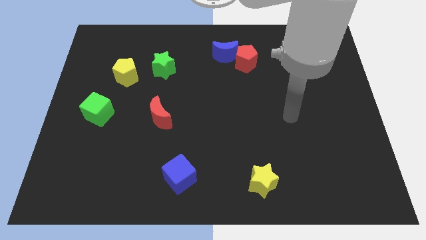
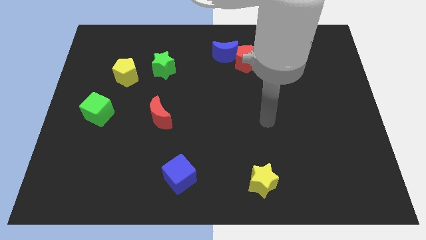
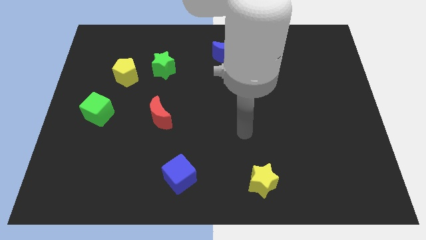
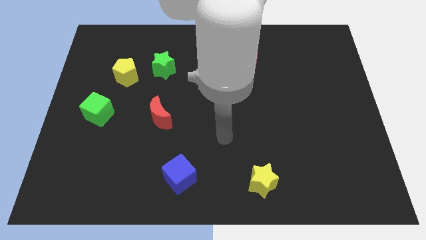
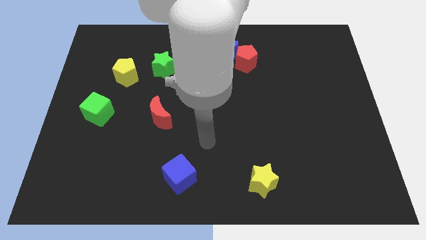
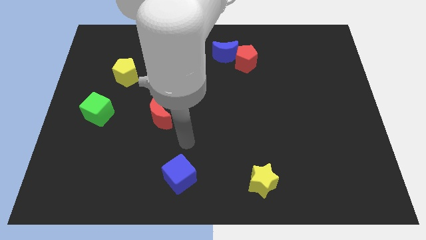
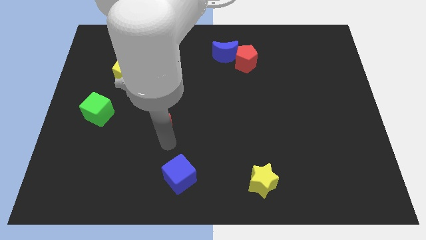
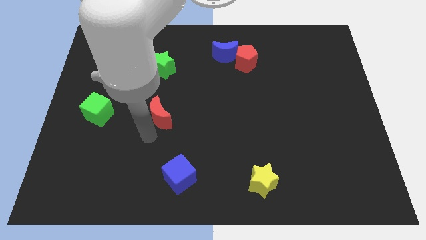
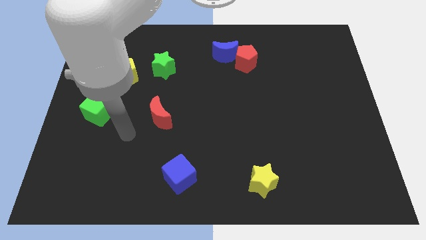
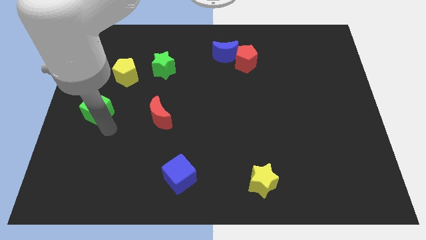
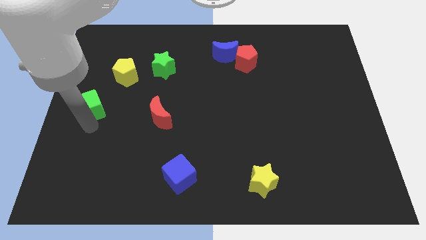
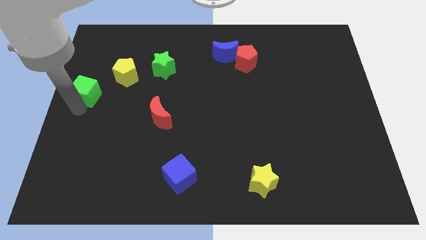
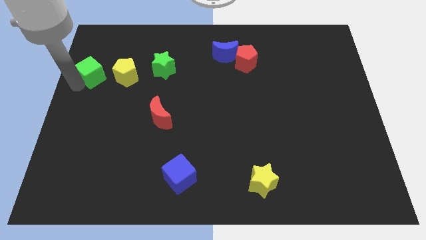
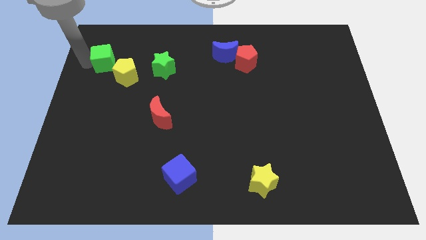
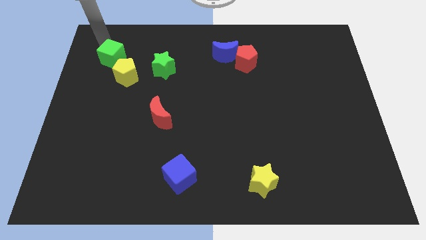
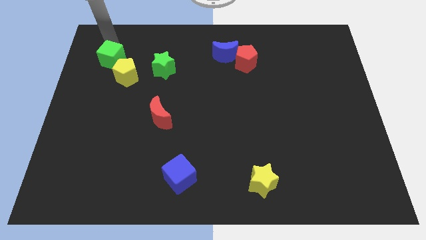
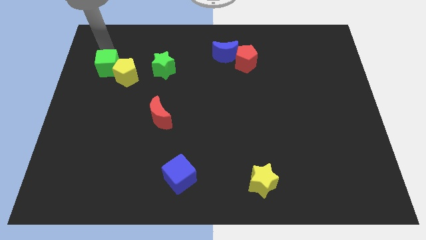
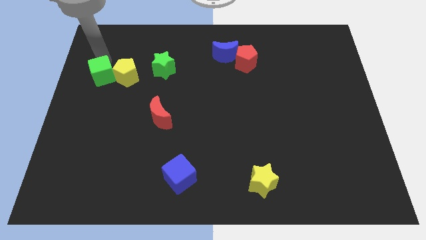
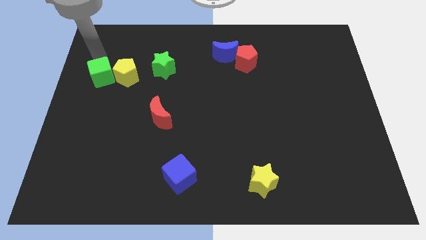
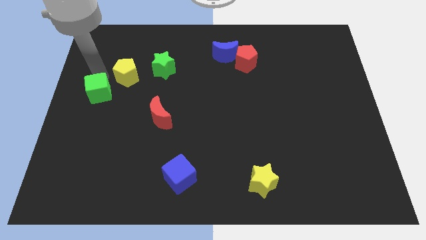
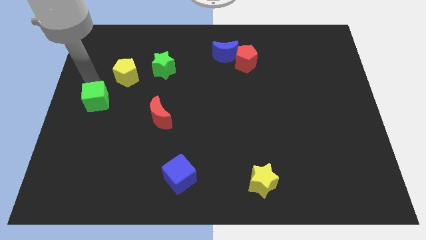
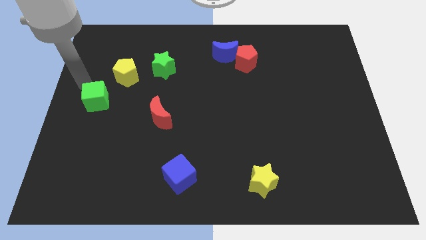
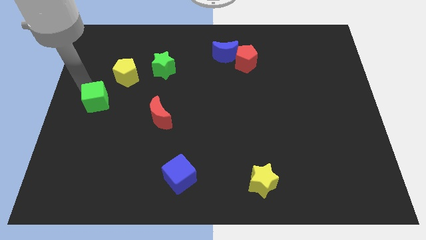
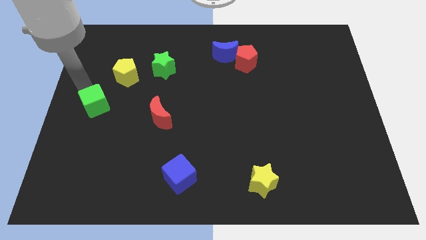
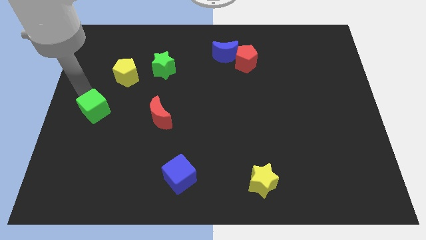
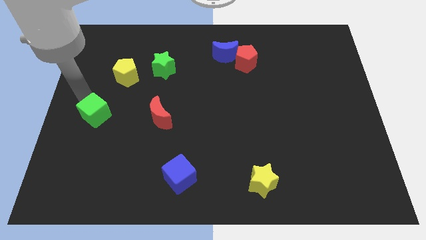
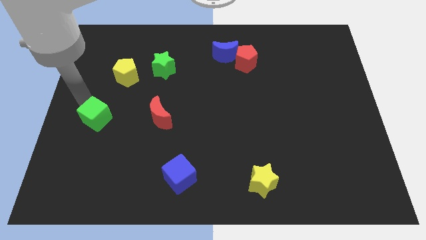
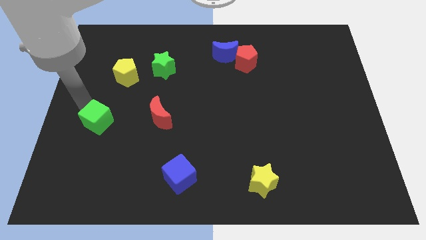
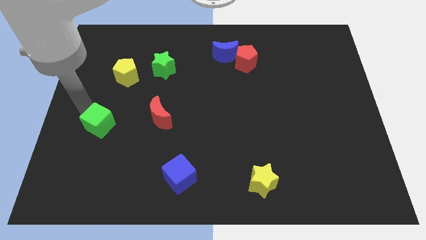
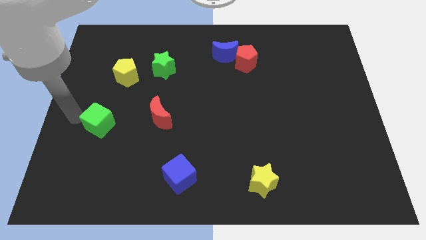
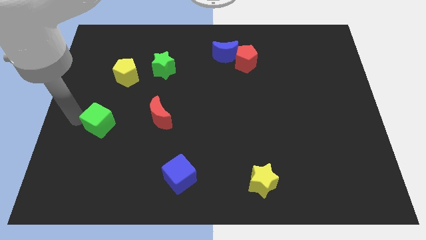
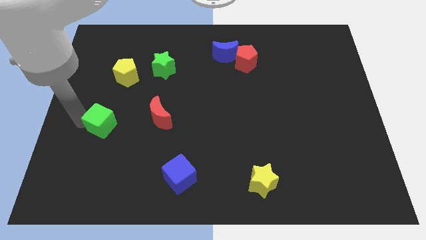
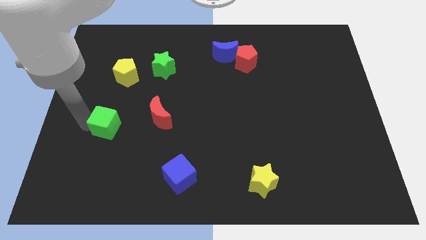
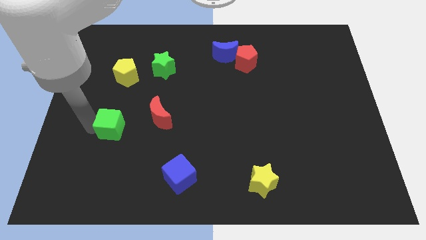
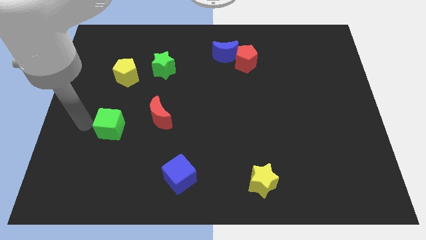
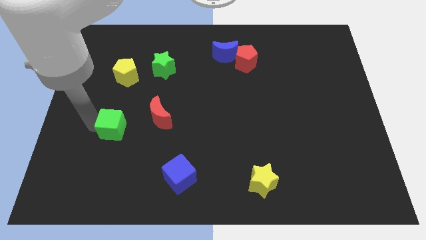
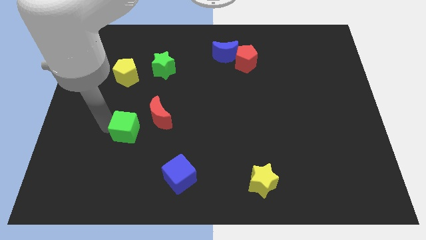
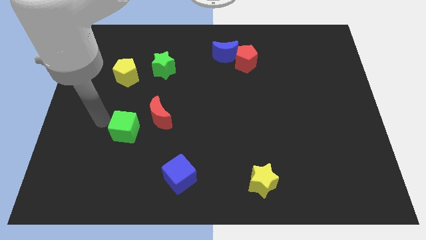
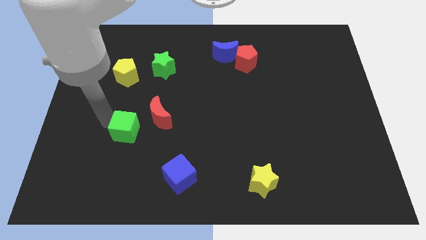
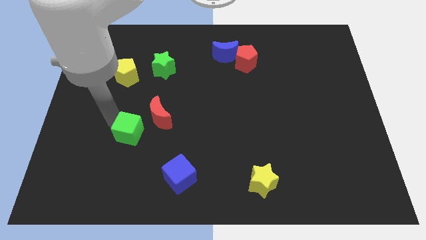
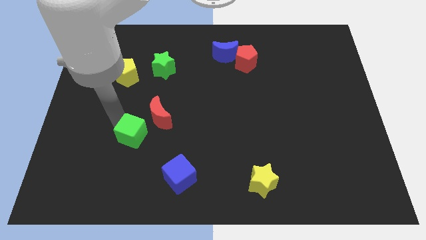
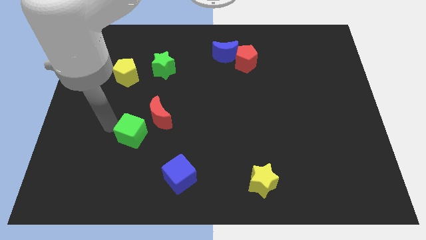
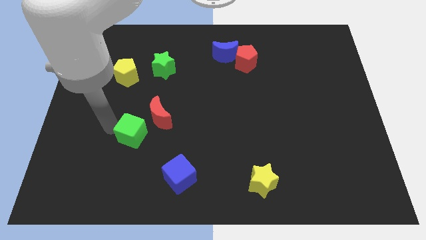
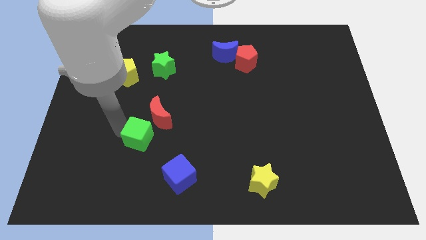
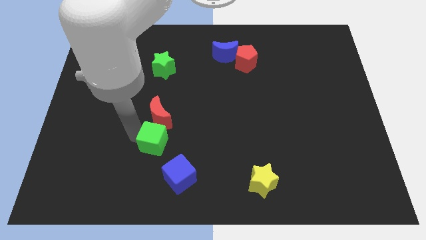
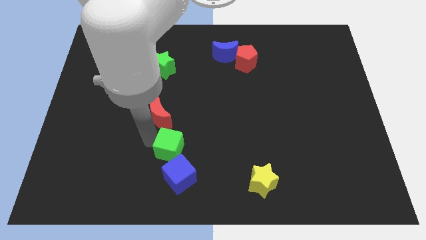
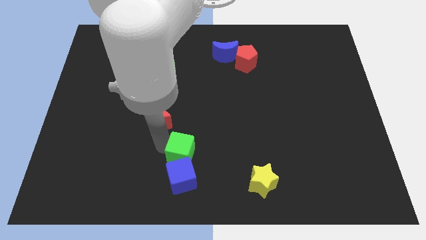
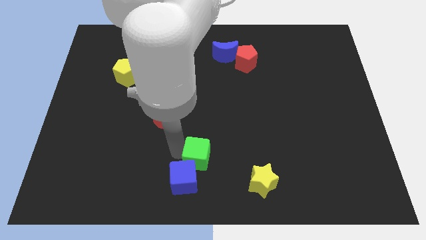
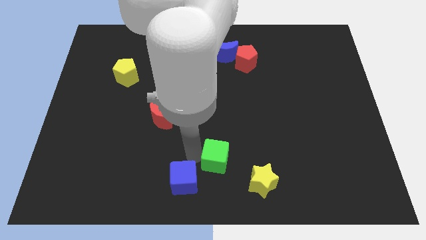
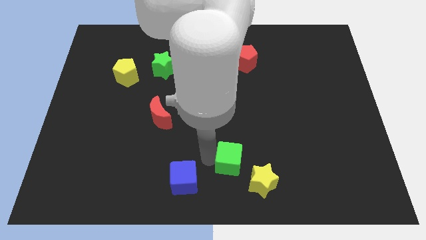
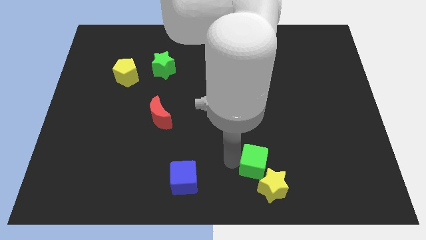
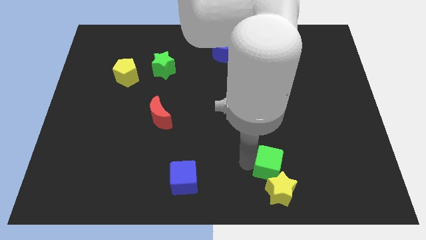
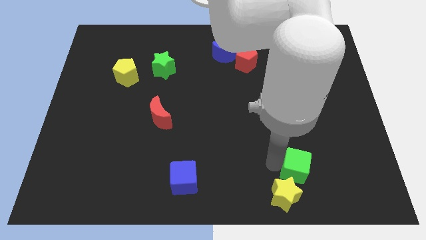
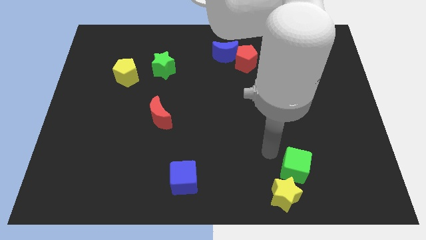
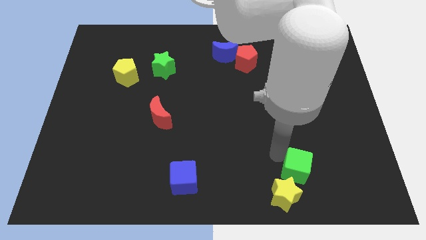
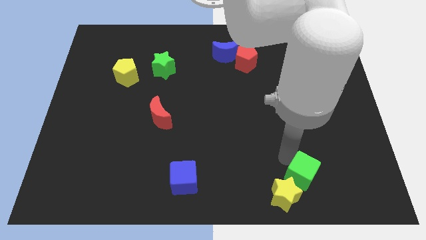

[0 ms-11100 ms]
move the green cube to the right of the yellow star

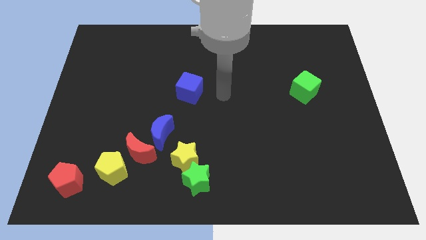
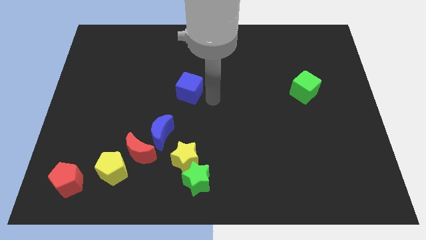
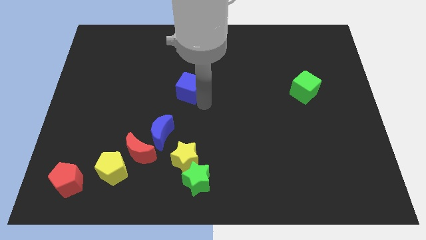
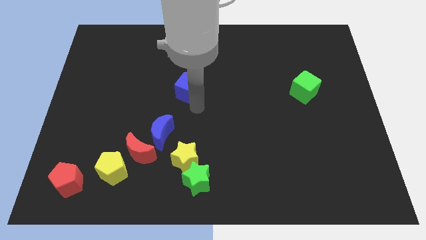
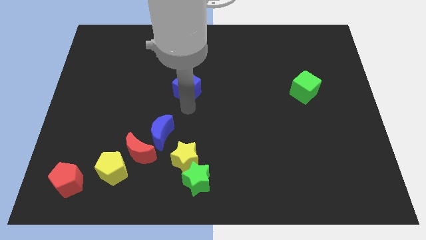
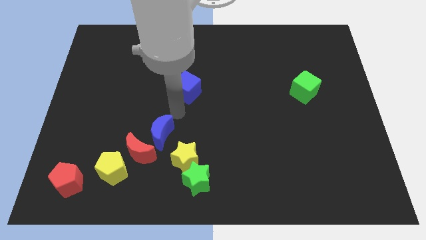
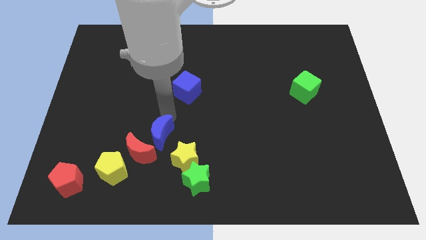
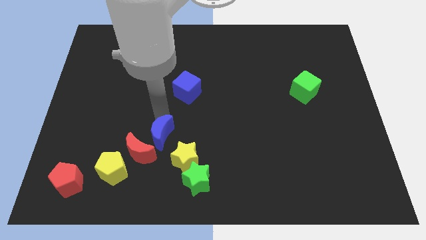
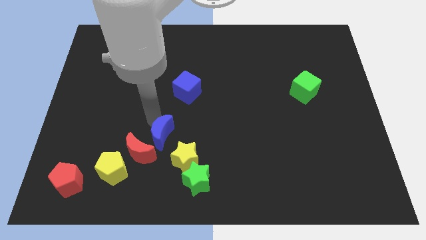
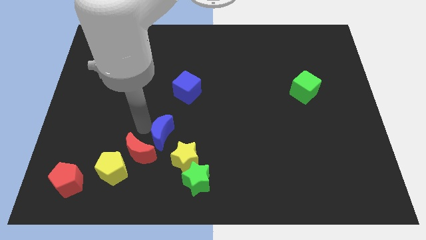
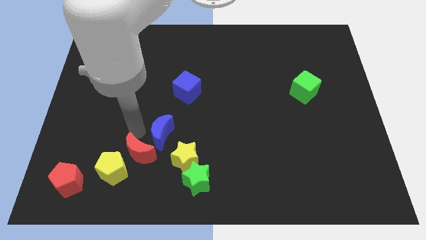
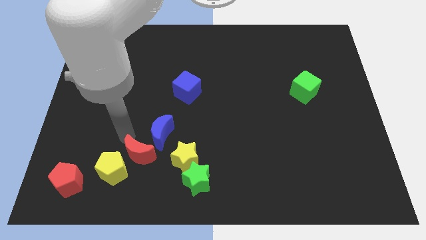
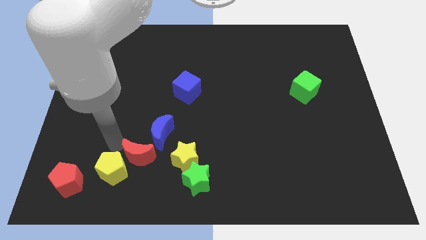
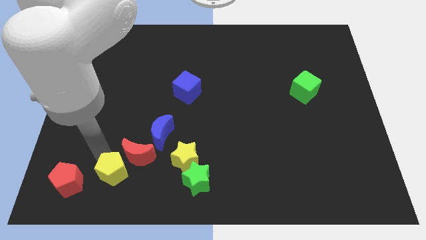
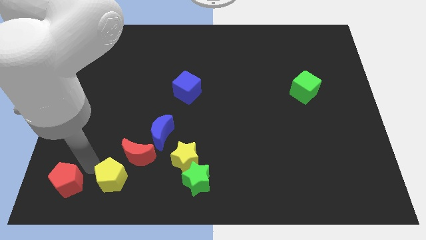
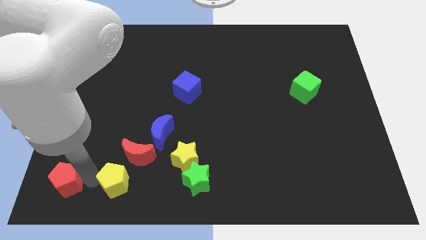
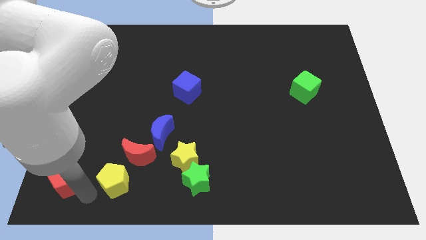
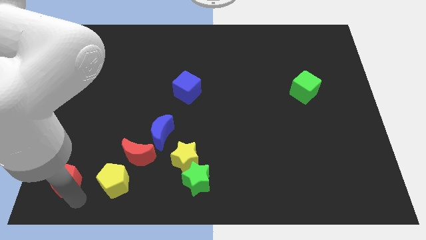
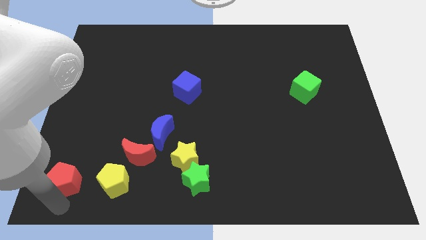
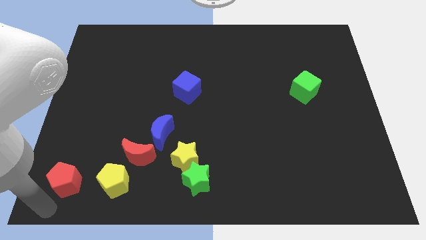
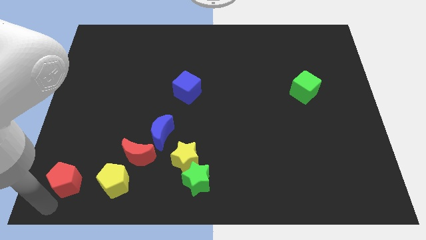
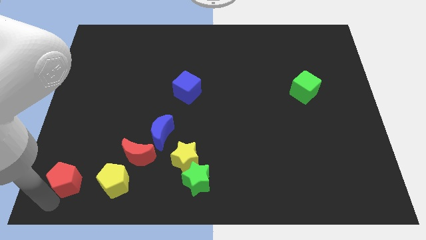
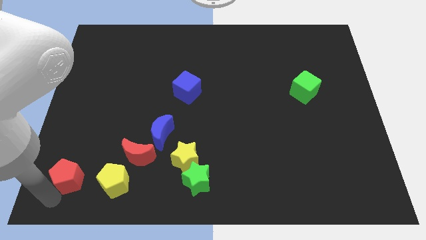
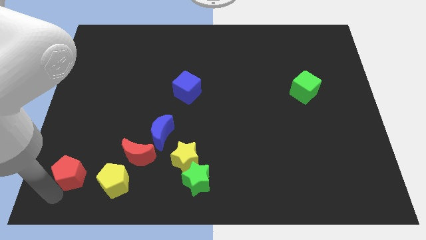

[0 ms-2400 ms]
put the red pentagon to the left of the red moon

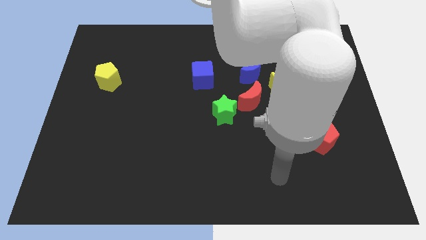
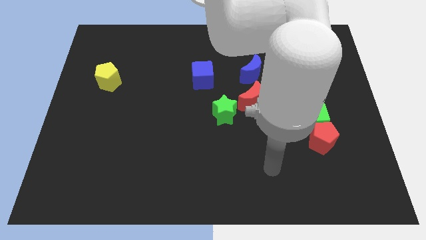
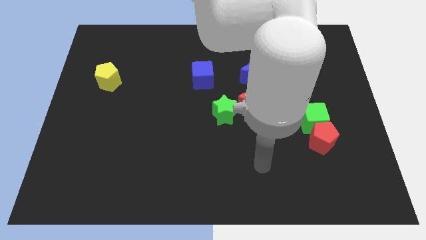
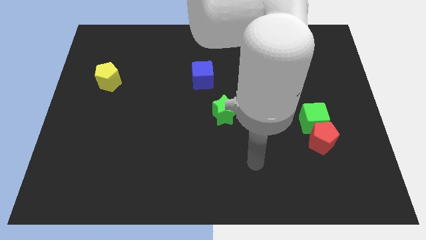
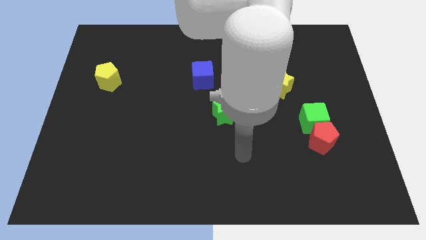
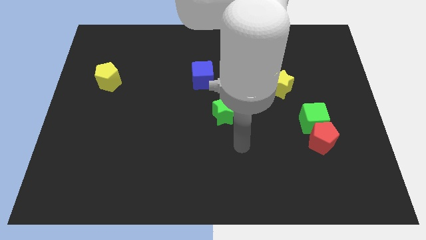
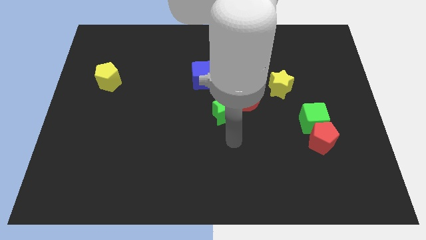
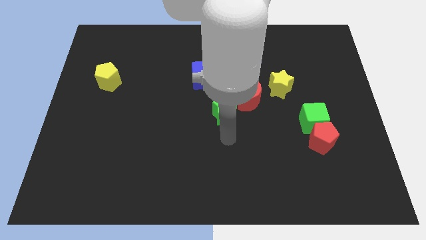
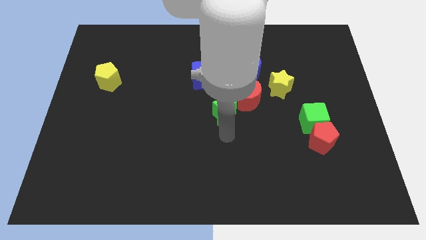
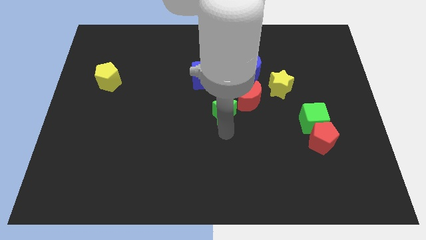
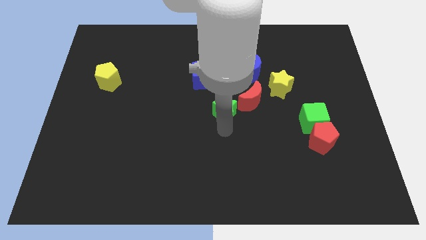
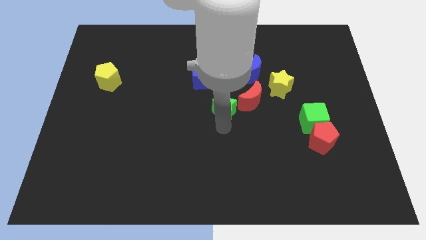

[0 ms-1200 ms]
slide the green star diagonally down and to the right of the blue cube
